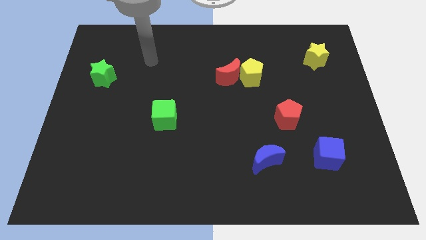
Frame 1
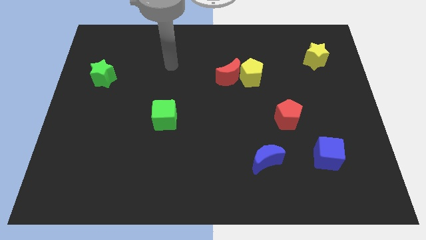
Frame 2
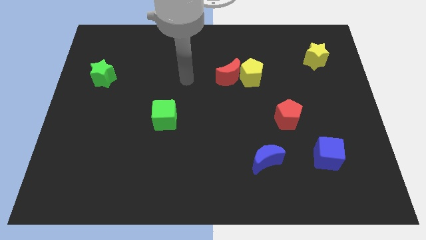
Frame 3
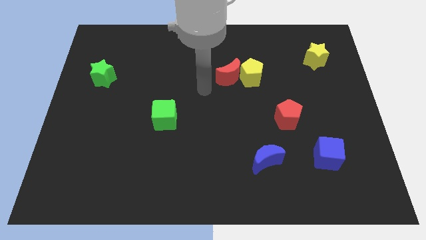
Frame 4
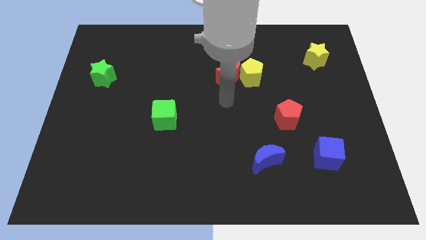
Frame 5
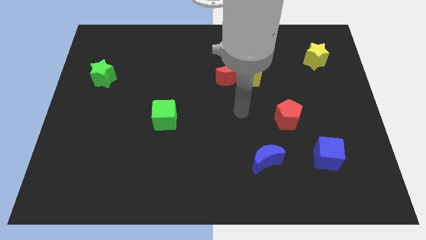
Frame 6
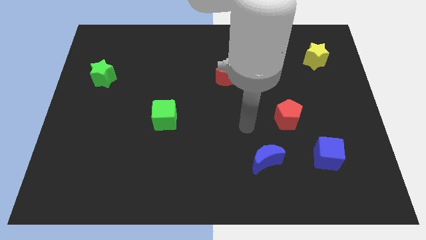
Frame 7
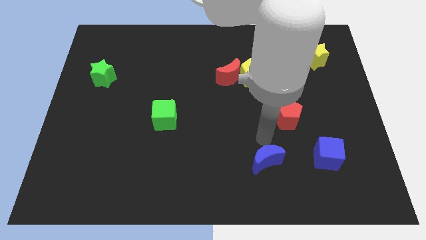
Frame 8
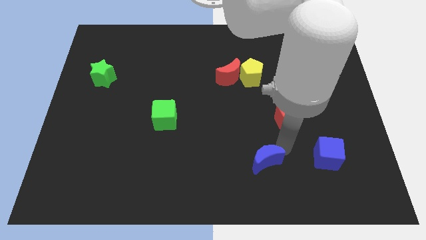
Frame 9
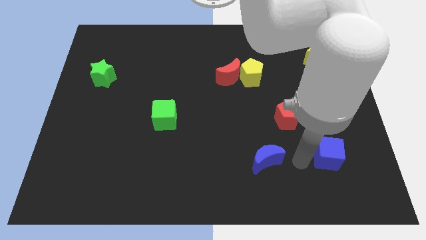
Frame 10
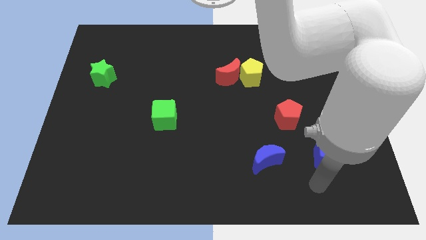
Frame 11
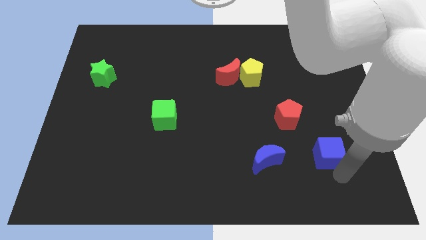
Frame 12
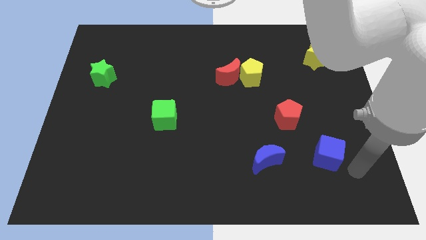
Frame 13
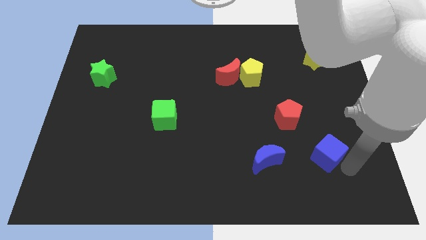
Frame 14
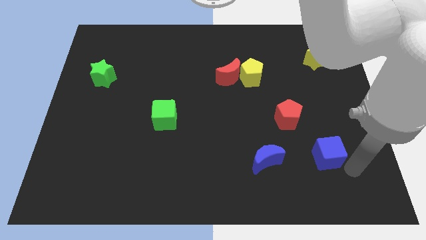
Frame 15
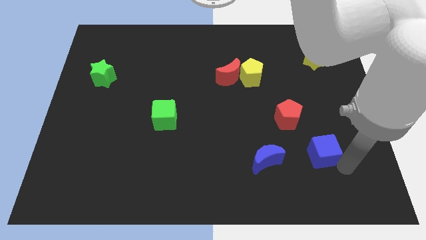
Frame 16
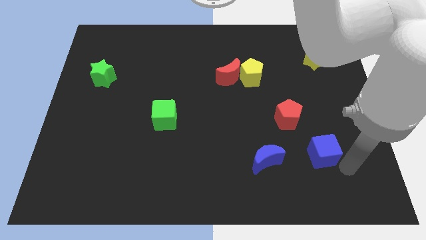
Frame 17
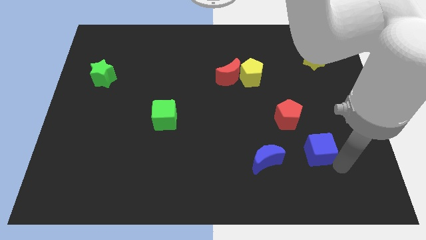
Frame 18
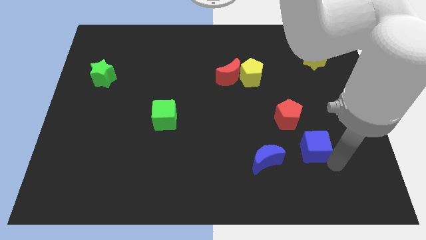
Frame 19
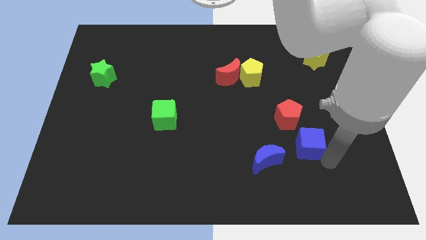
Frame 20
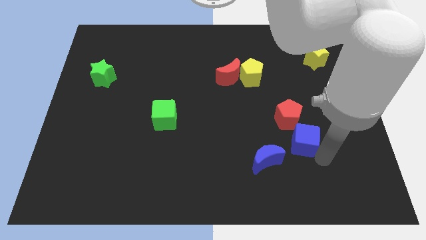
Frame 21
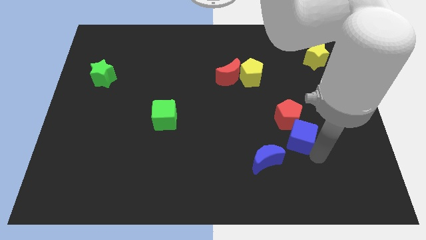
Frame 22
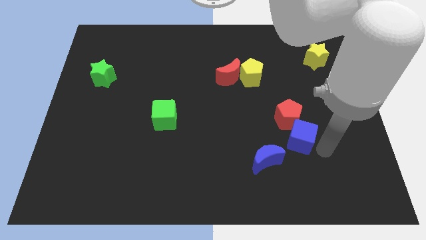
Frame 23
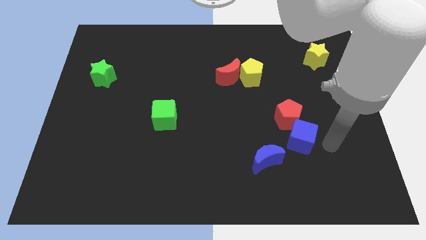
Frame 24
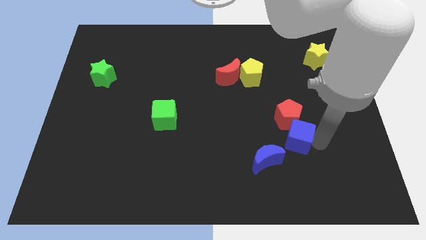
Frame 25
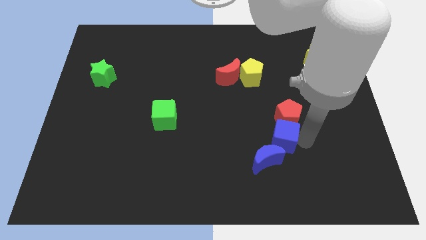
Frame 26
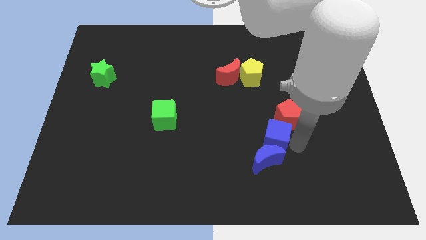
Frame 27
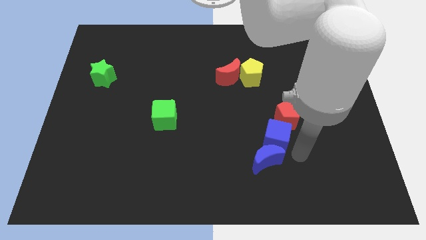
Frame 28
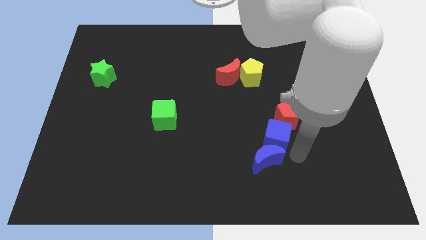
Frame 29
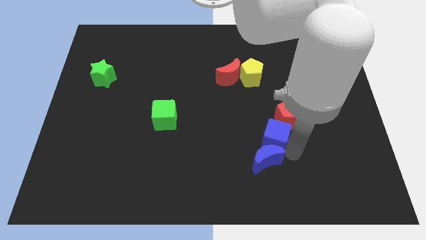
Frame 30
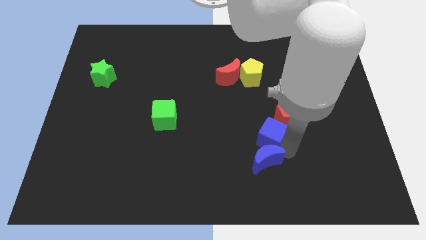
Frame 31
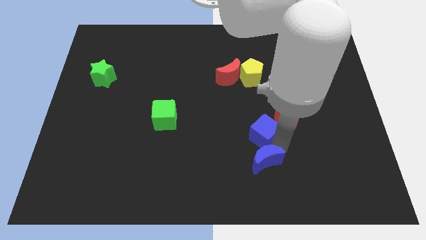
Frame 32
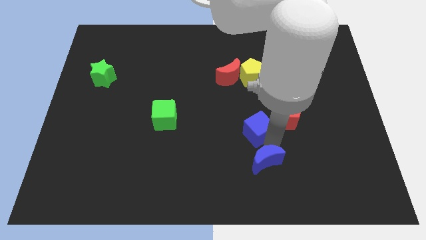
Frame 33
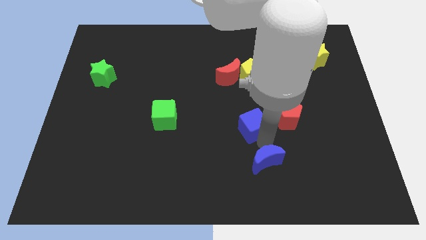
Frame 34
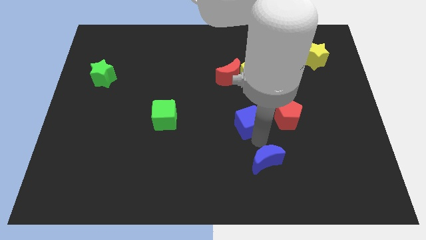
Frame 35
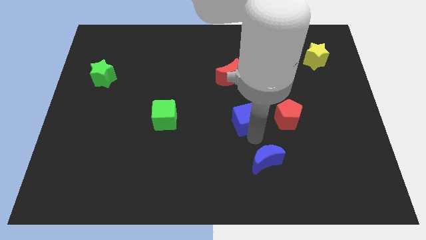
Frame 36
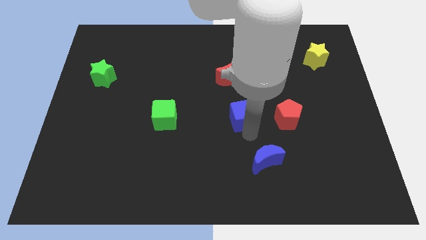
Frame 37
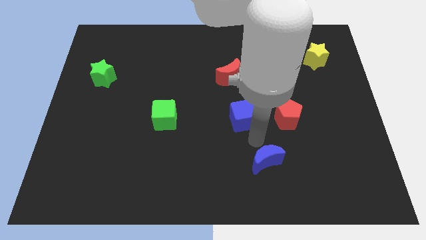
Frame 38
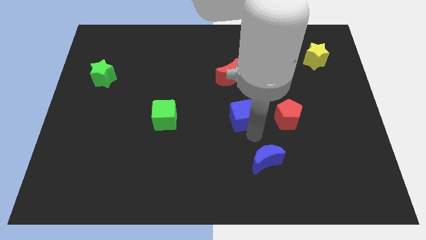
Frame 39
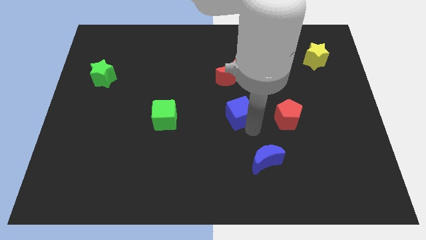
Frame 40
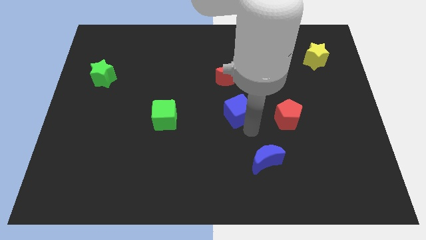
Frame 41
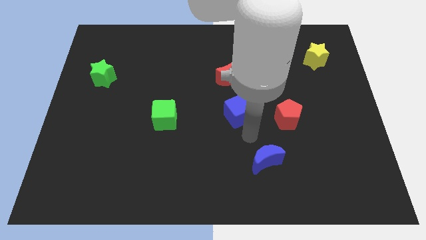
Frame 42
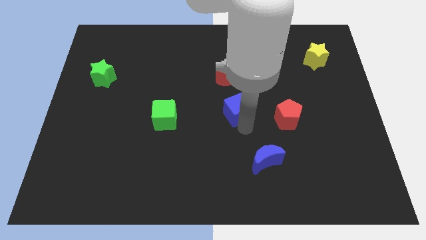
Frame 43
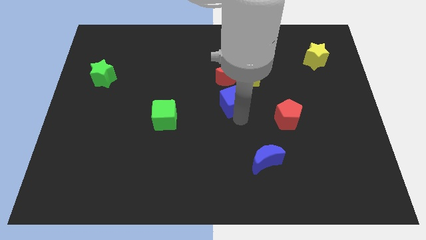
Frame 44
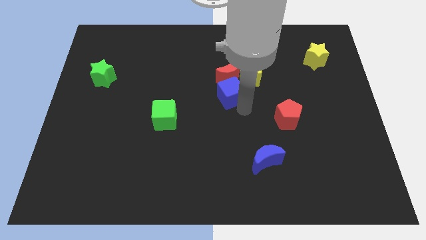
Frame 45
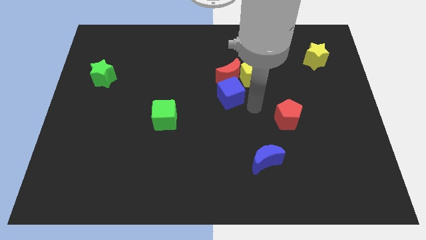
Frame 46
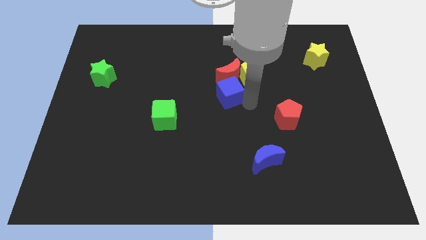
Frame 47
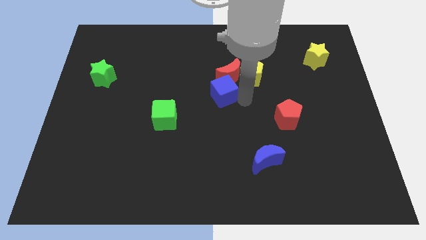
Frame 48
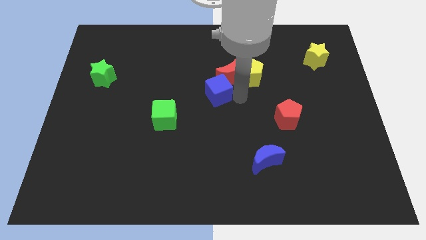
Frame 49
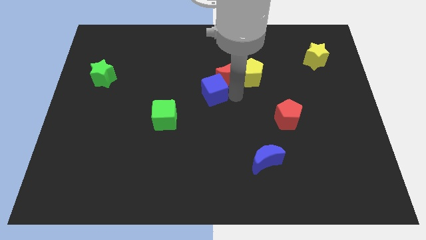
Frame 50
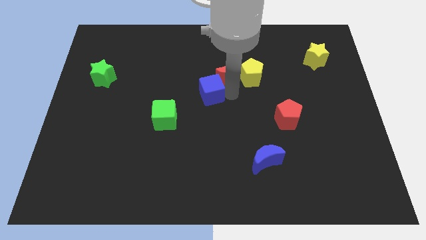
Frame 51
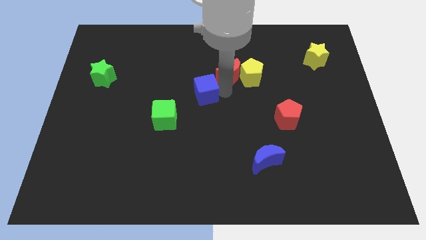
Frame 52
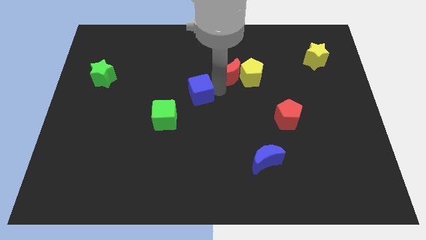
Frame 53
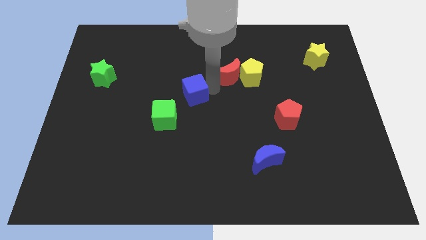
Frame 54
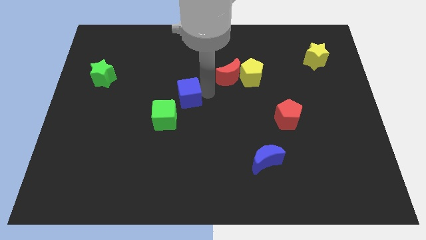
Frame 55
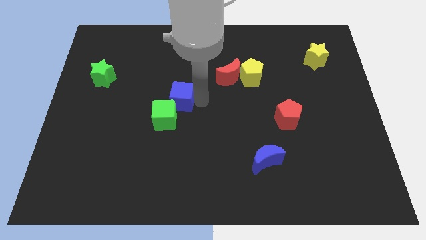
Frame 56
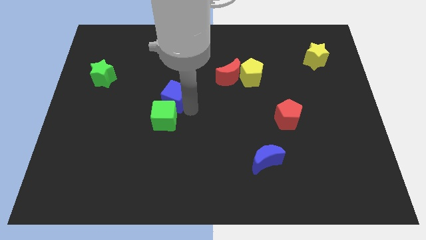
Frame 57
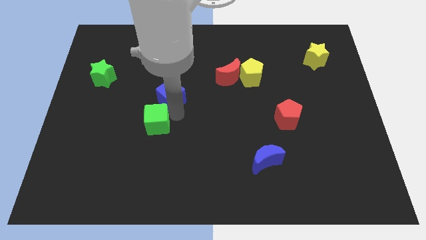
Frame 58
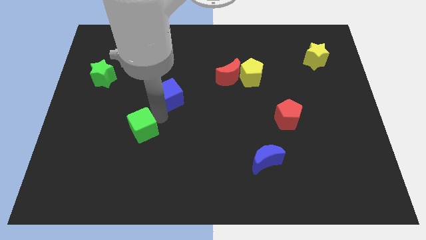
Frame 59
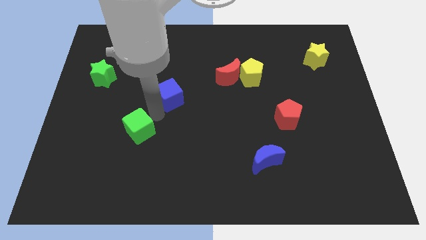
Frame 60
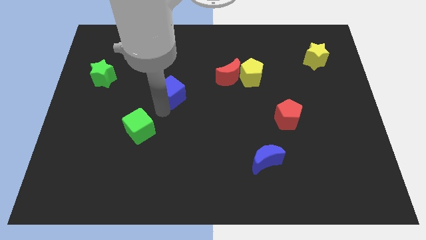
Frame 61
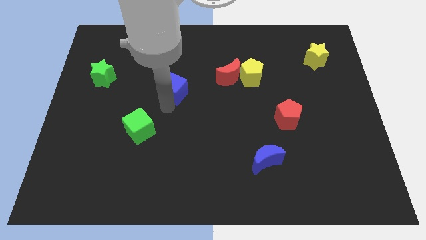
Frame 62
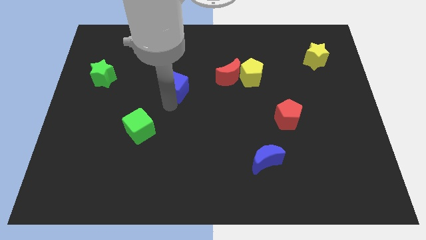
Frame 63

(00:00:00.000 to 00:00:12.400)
slide the blue cube just left of the red moon

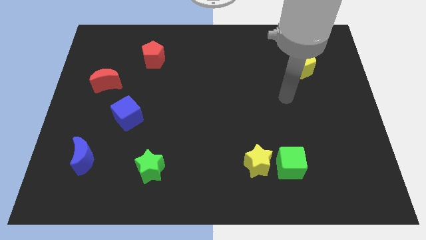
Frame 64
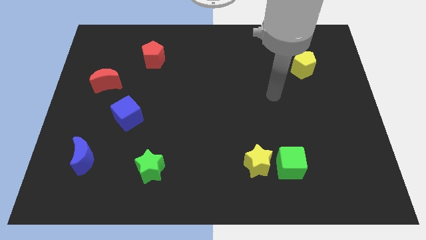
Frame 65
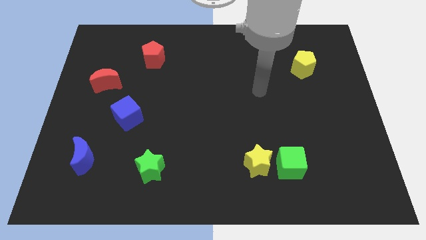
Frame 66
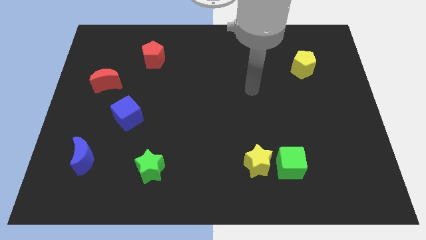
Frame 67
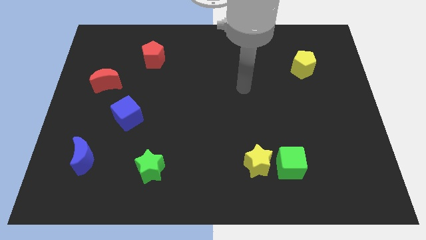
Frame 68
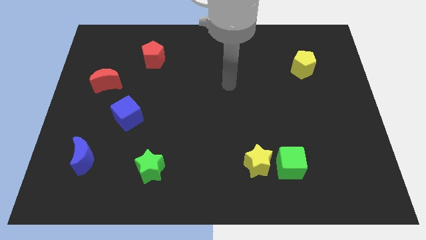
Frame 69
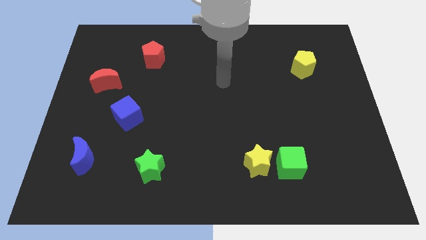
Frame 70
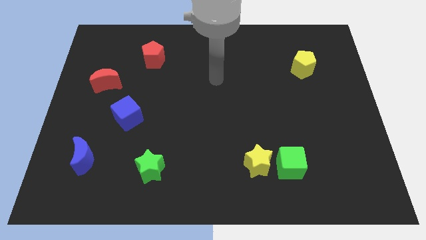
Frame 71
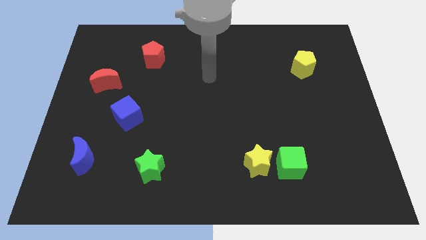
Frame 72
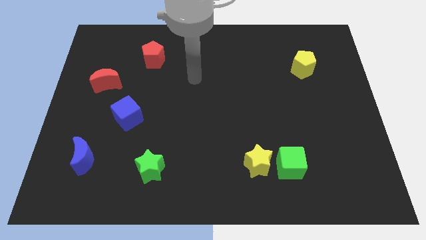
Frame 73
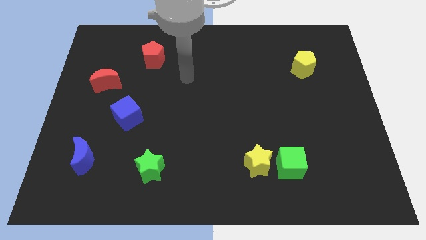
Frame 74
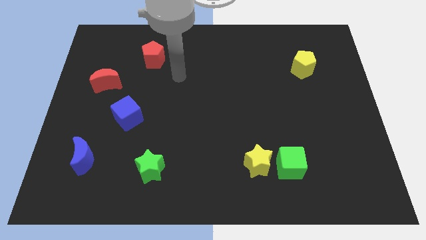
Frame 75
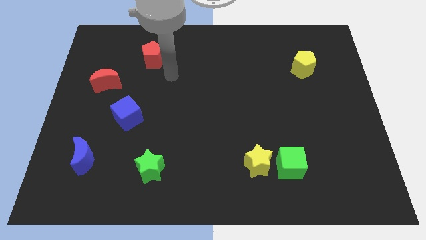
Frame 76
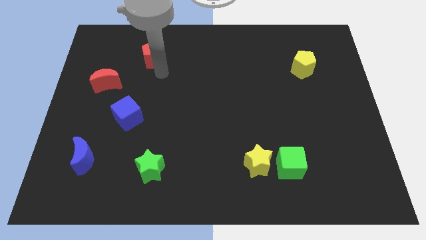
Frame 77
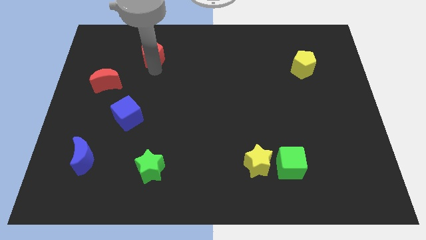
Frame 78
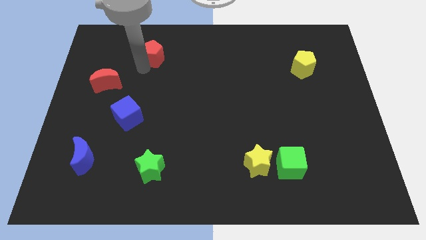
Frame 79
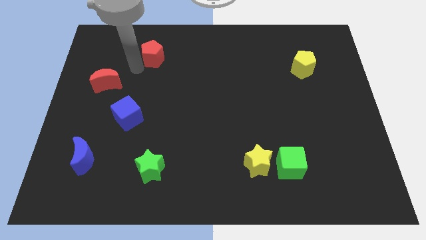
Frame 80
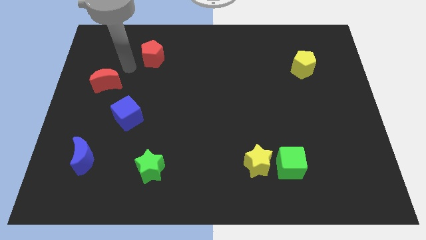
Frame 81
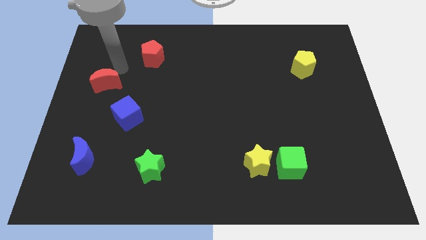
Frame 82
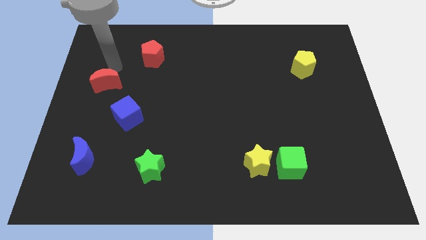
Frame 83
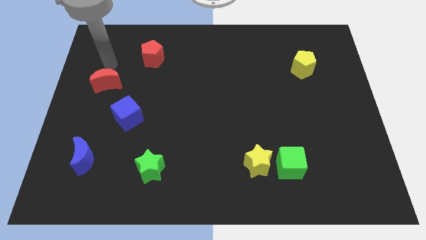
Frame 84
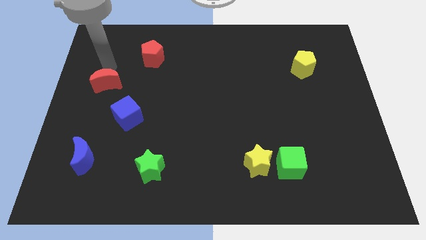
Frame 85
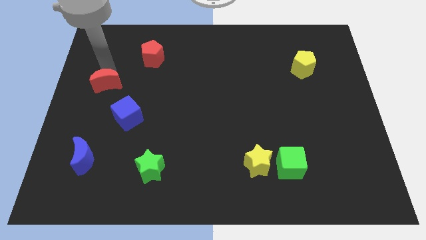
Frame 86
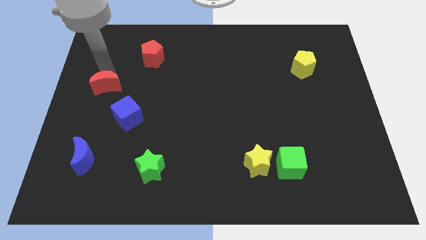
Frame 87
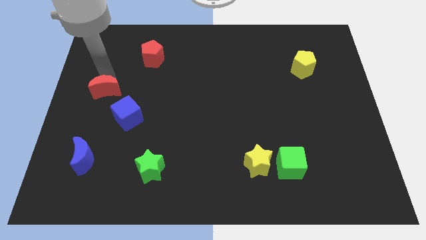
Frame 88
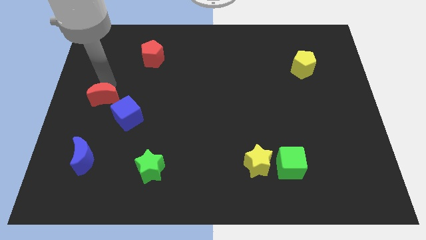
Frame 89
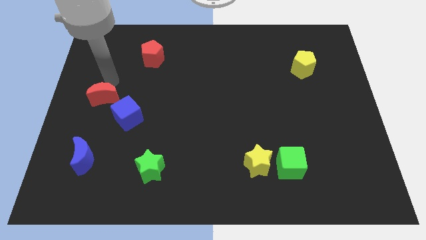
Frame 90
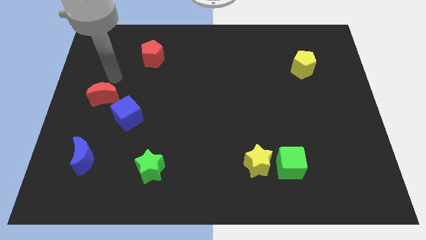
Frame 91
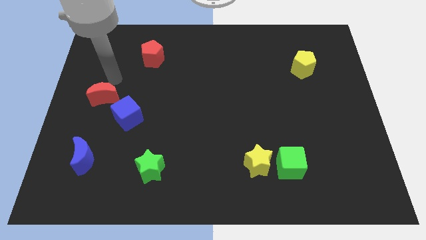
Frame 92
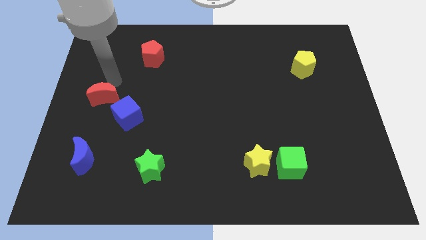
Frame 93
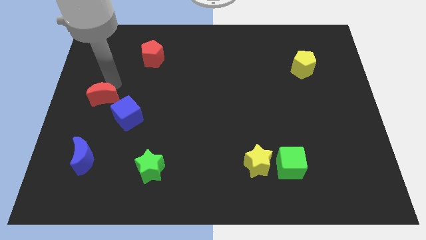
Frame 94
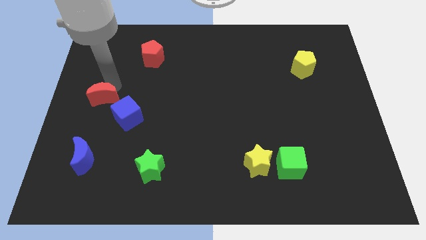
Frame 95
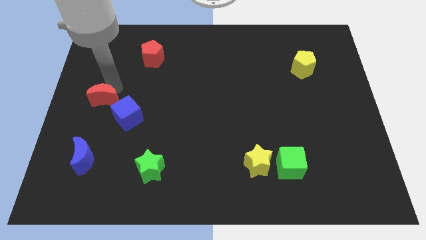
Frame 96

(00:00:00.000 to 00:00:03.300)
move the red moon to the top of the blue moon
